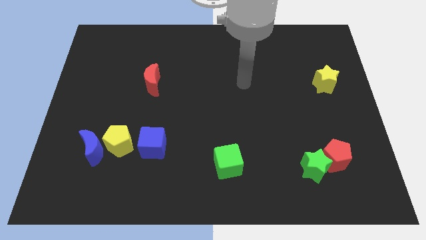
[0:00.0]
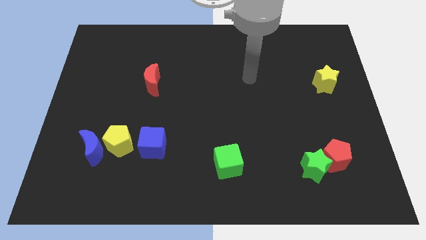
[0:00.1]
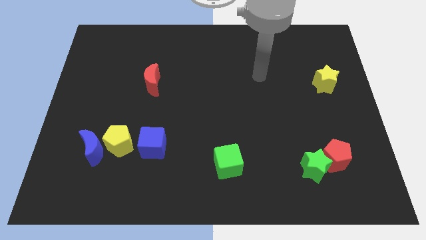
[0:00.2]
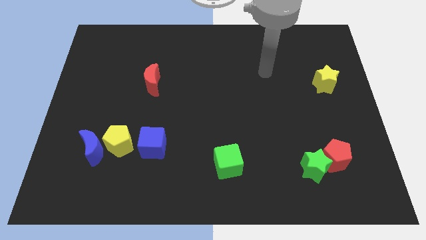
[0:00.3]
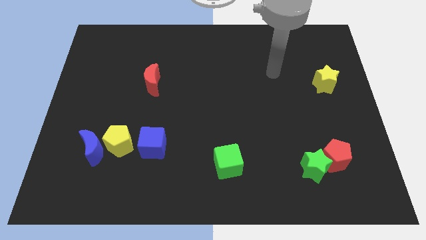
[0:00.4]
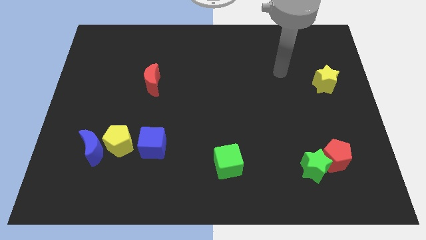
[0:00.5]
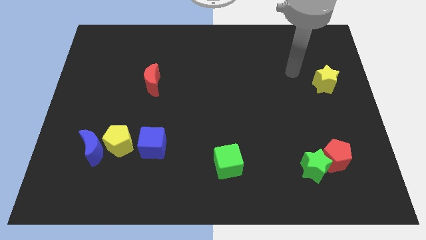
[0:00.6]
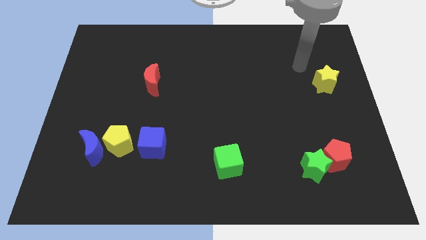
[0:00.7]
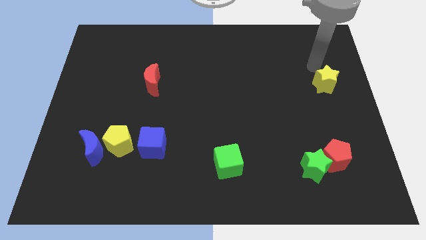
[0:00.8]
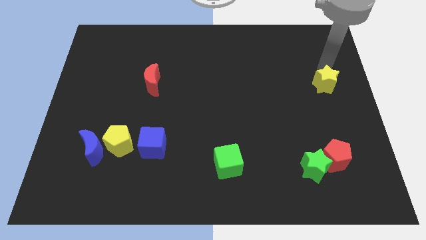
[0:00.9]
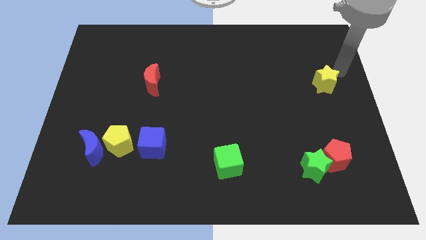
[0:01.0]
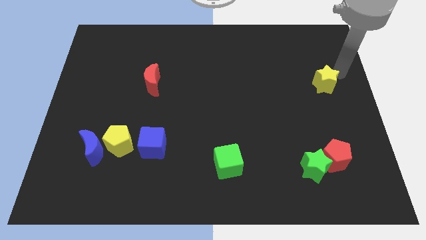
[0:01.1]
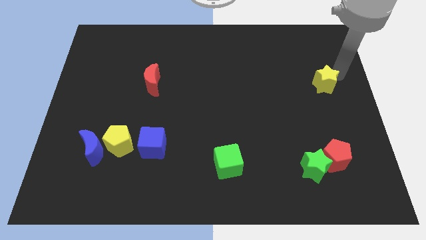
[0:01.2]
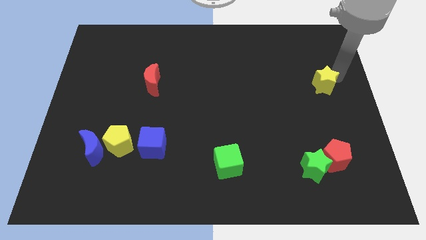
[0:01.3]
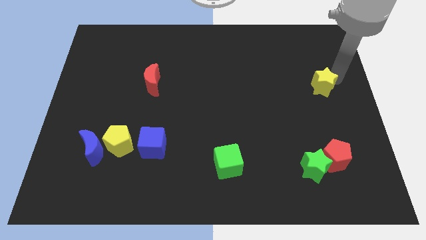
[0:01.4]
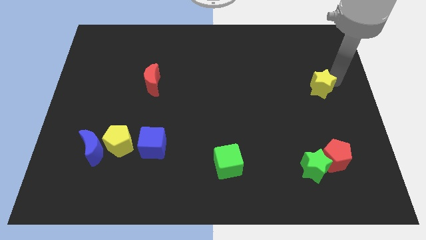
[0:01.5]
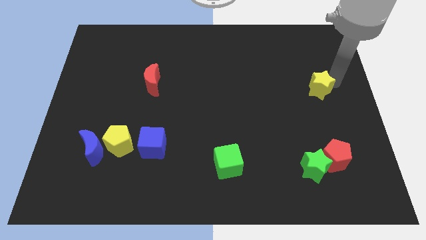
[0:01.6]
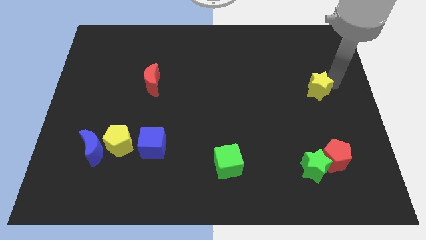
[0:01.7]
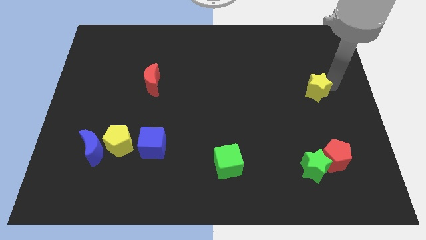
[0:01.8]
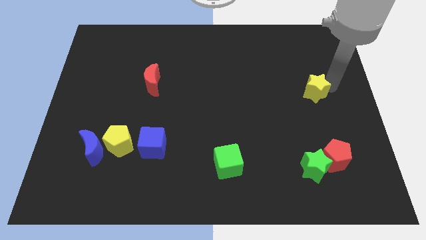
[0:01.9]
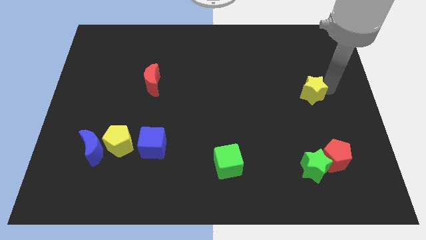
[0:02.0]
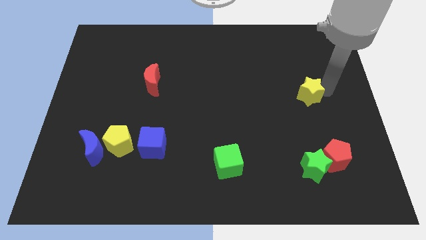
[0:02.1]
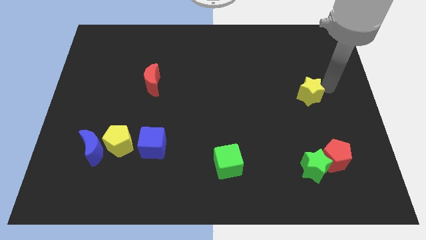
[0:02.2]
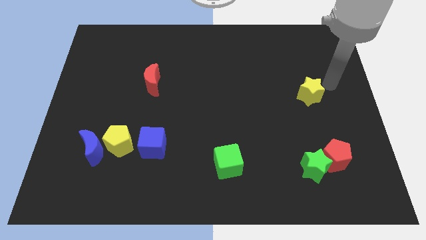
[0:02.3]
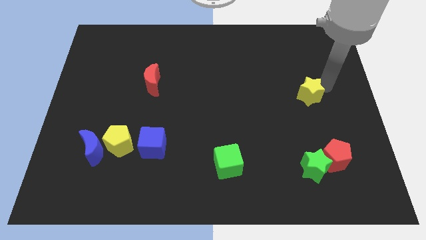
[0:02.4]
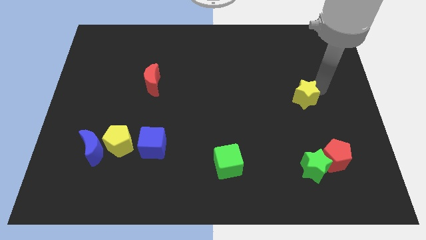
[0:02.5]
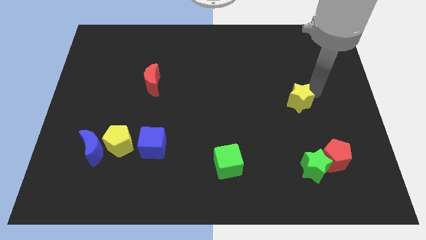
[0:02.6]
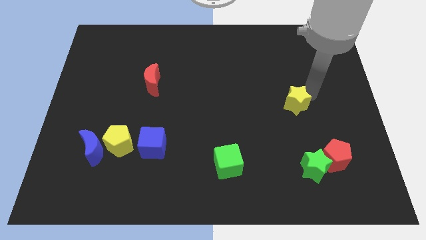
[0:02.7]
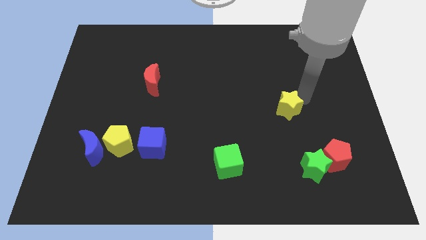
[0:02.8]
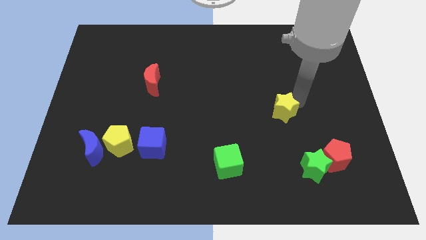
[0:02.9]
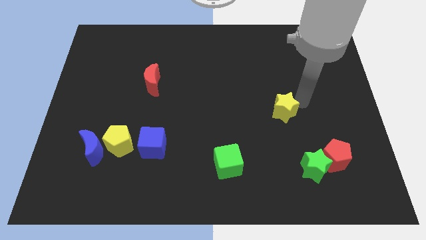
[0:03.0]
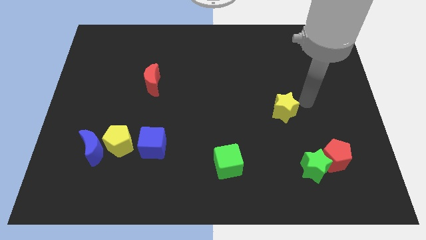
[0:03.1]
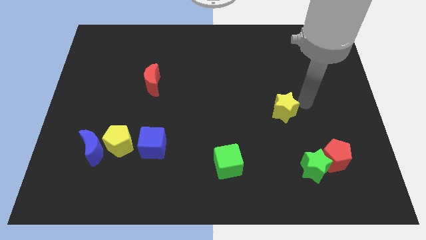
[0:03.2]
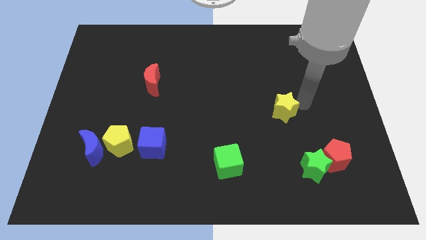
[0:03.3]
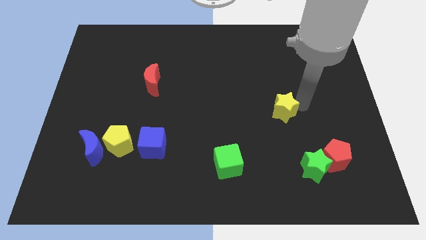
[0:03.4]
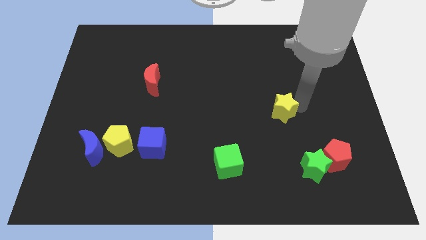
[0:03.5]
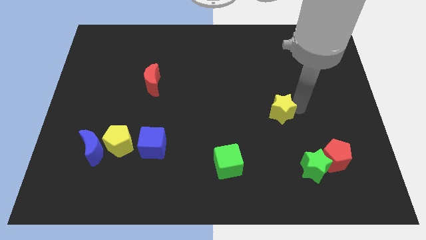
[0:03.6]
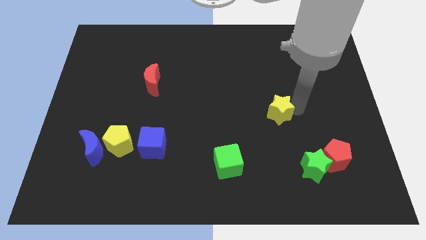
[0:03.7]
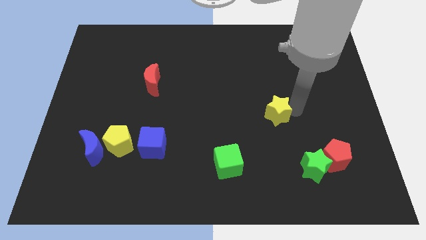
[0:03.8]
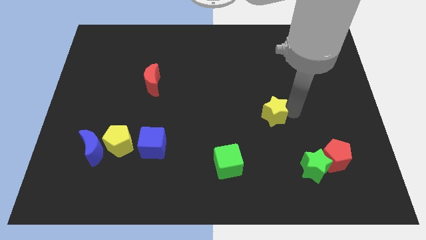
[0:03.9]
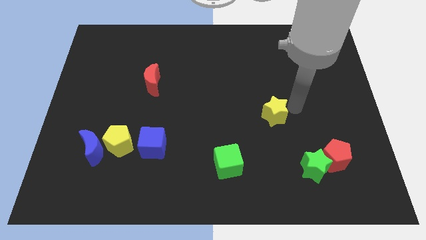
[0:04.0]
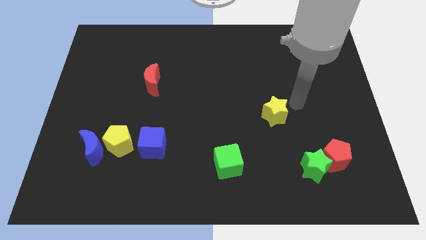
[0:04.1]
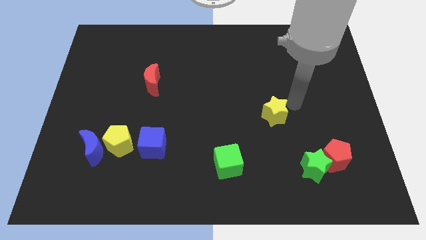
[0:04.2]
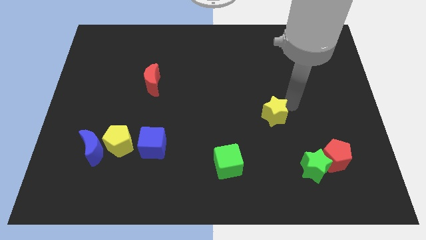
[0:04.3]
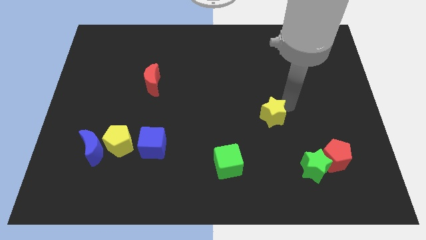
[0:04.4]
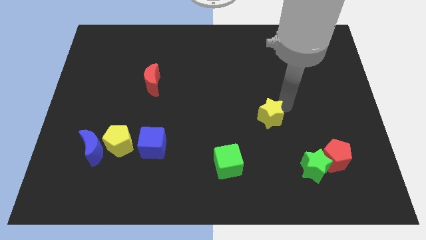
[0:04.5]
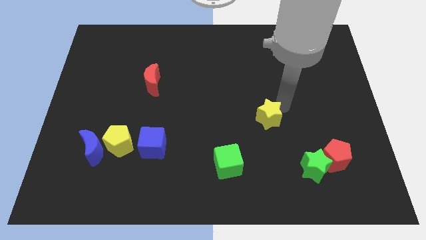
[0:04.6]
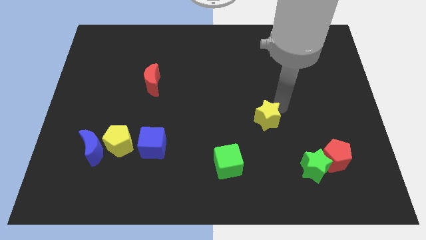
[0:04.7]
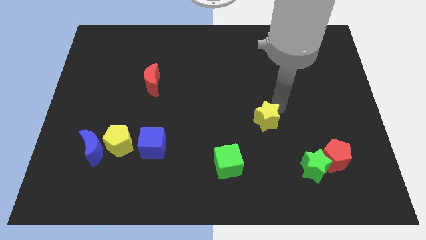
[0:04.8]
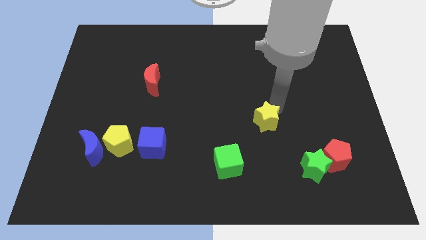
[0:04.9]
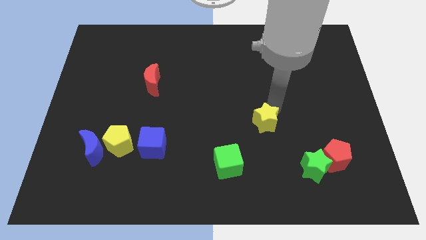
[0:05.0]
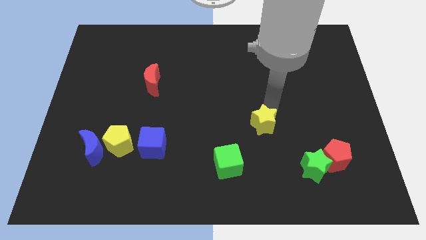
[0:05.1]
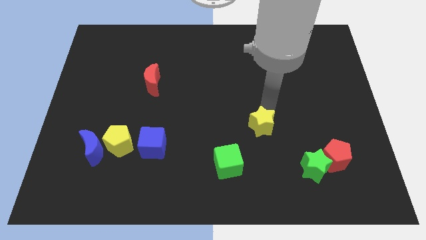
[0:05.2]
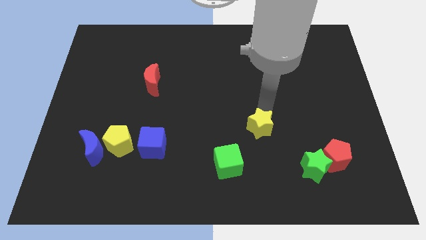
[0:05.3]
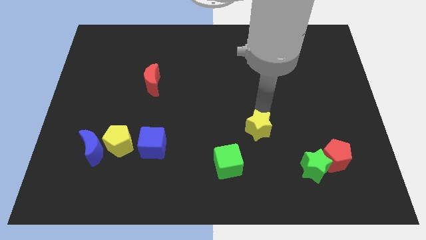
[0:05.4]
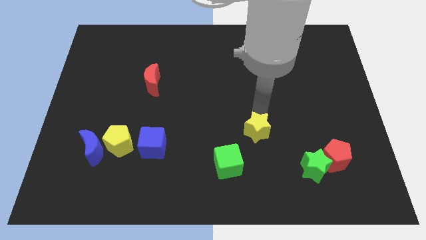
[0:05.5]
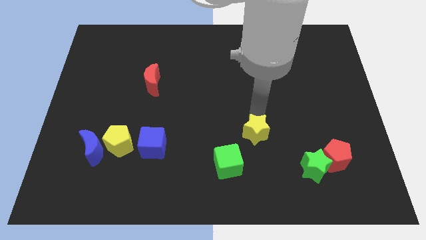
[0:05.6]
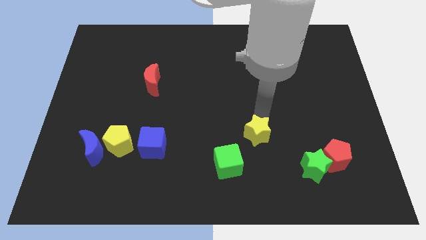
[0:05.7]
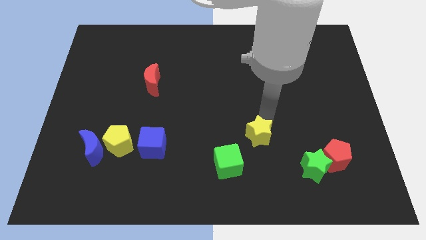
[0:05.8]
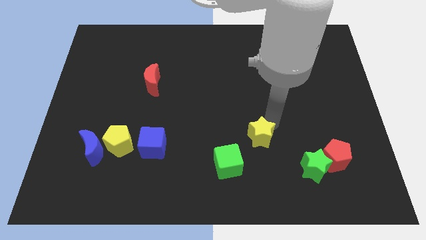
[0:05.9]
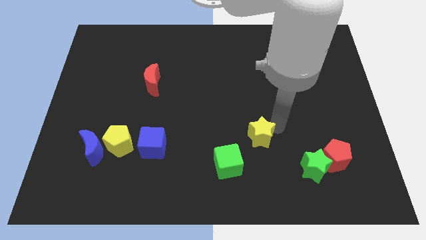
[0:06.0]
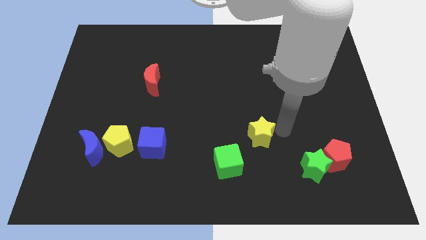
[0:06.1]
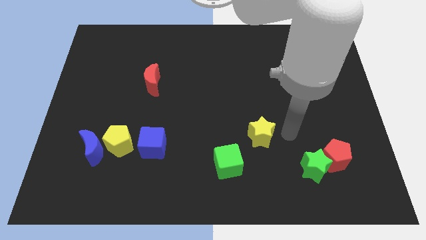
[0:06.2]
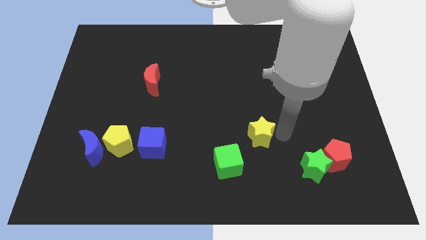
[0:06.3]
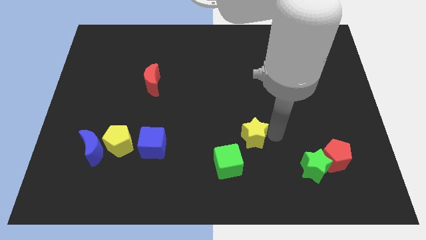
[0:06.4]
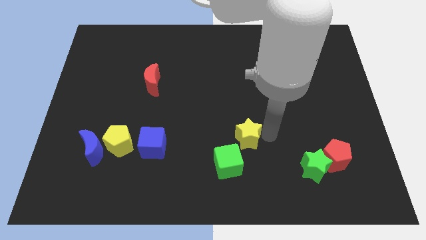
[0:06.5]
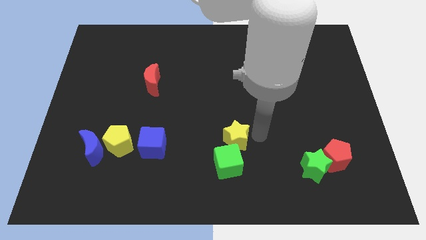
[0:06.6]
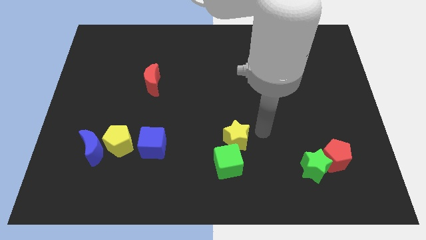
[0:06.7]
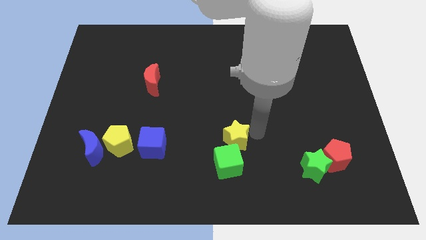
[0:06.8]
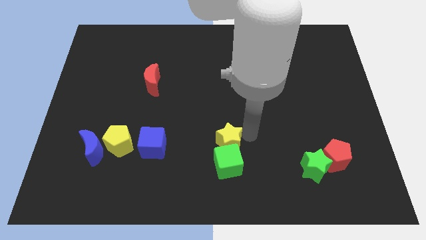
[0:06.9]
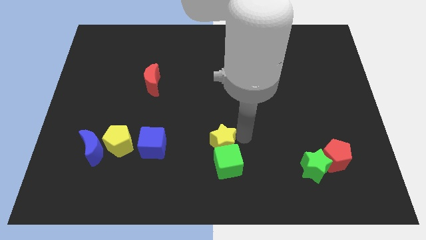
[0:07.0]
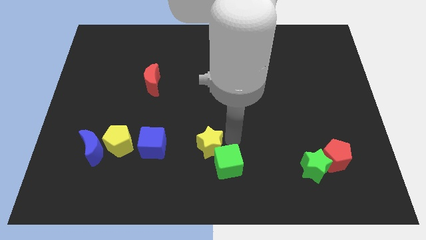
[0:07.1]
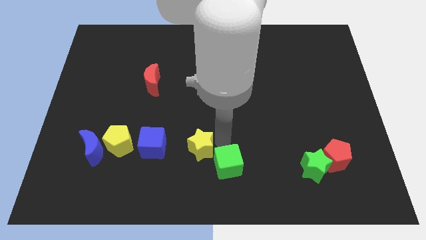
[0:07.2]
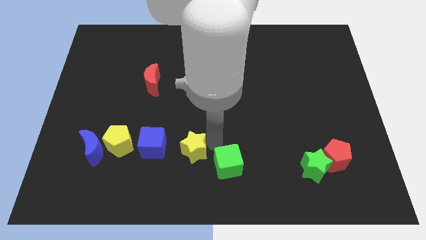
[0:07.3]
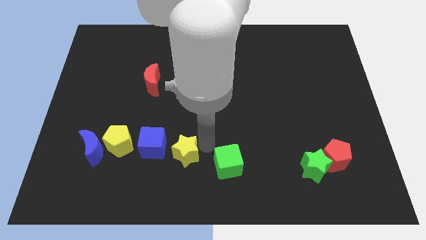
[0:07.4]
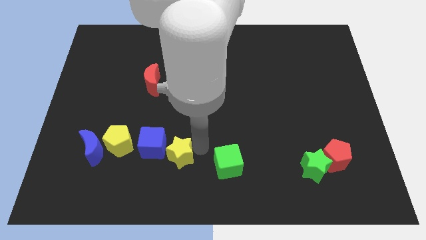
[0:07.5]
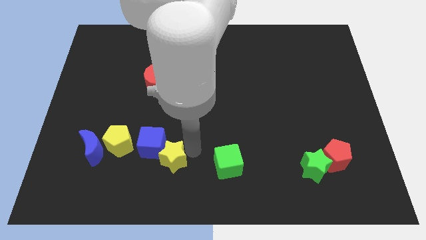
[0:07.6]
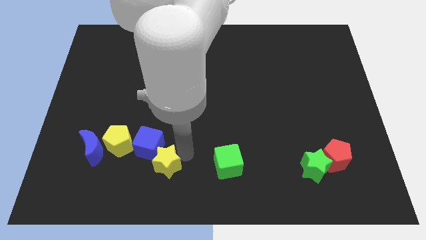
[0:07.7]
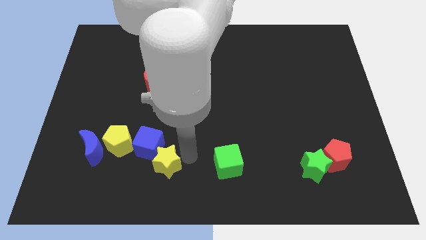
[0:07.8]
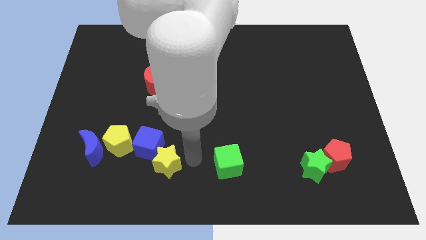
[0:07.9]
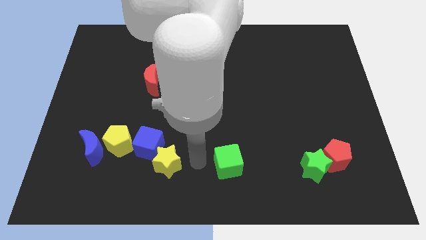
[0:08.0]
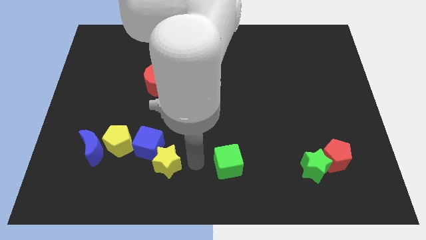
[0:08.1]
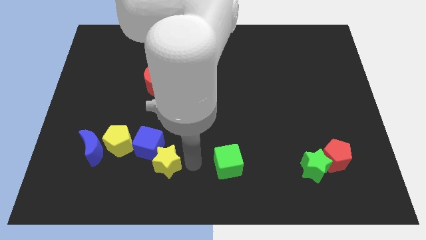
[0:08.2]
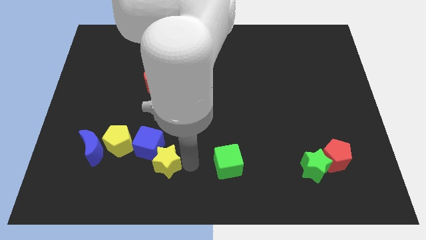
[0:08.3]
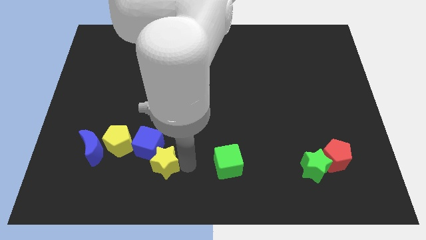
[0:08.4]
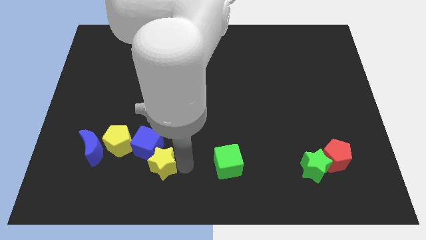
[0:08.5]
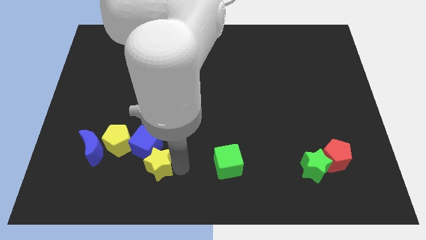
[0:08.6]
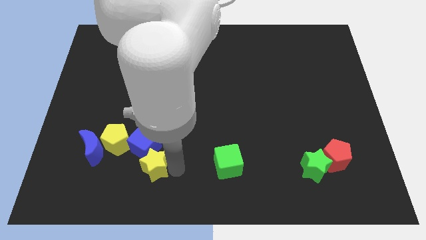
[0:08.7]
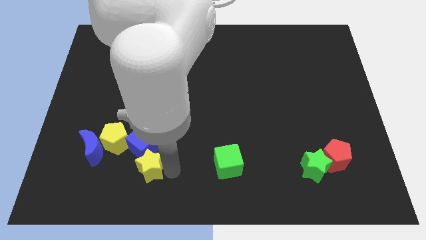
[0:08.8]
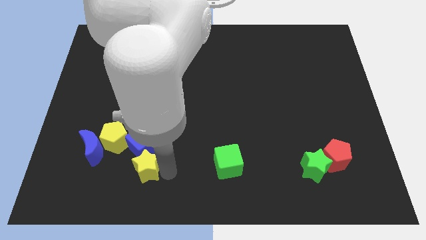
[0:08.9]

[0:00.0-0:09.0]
slide the yellow star to the bottom left side of the blue cube
